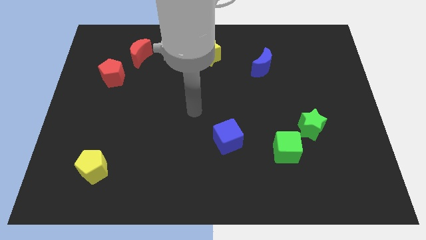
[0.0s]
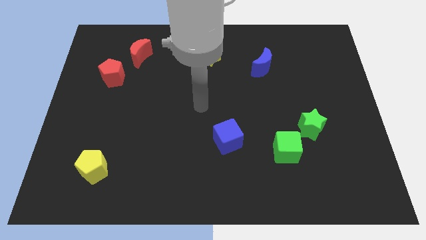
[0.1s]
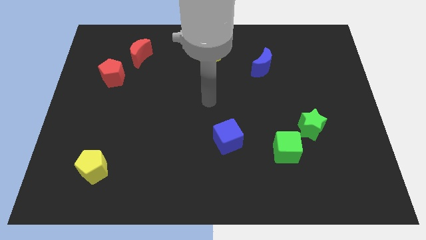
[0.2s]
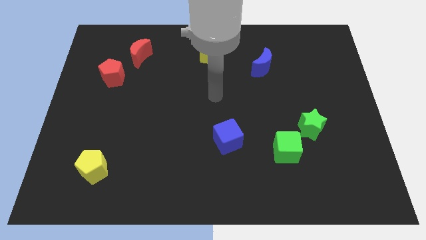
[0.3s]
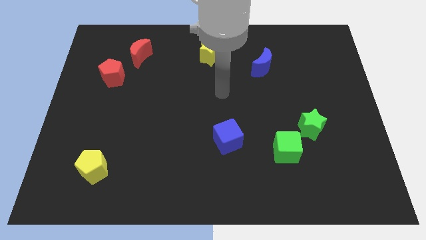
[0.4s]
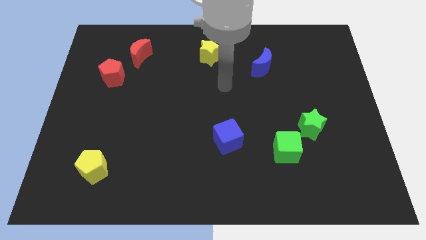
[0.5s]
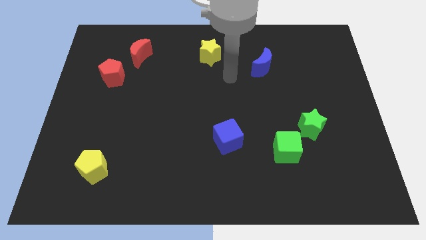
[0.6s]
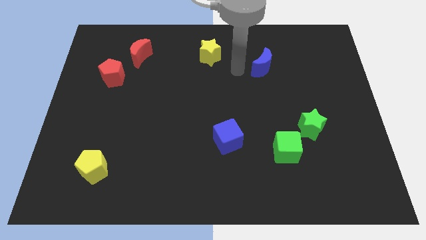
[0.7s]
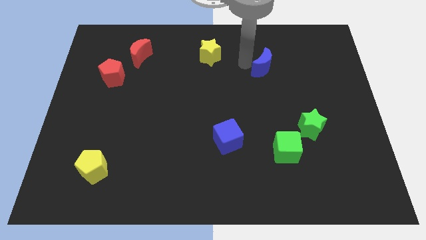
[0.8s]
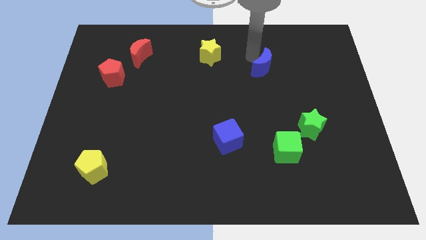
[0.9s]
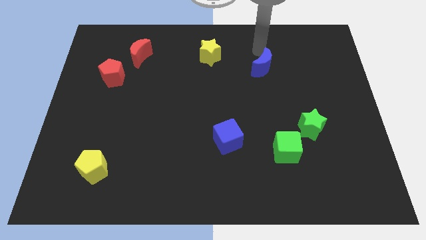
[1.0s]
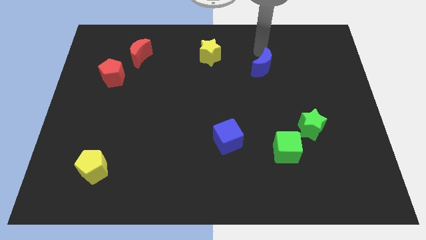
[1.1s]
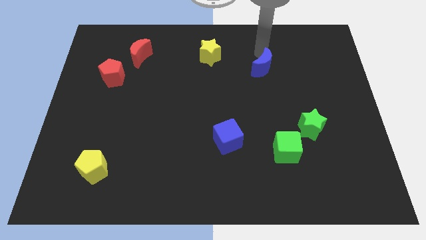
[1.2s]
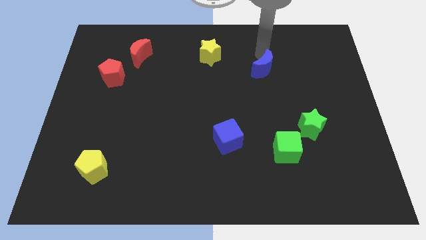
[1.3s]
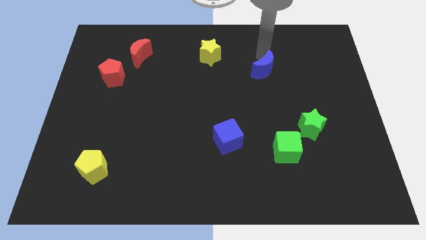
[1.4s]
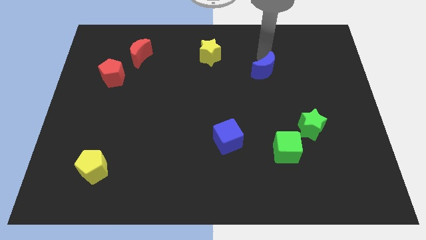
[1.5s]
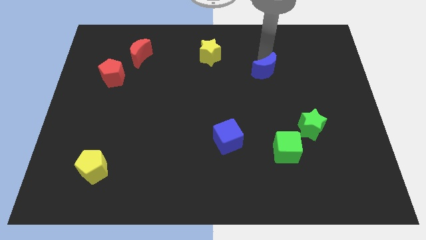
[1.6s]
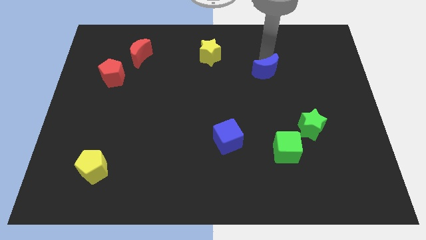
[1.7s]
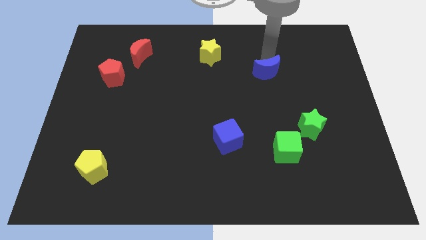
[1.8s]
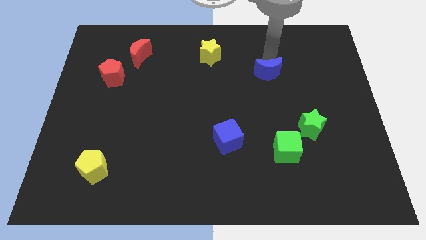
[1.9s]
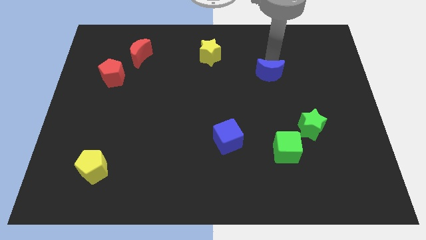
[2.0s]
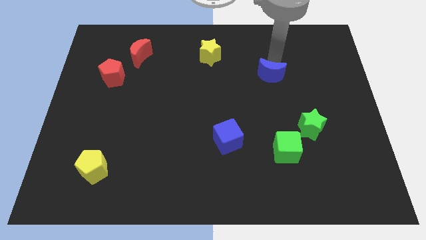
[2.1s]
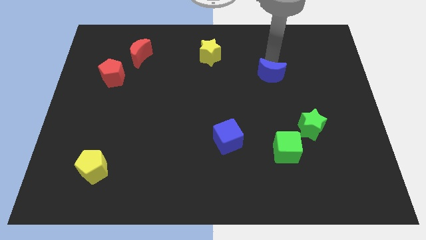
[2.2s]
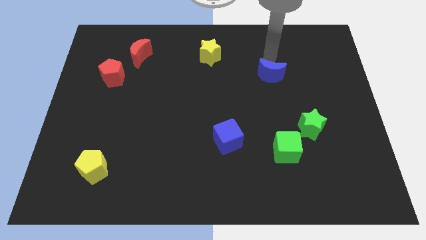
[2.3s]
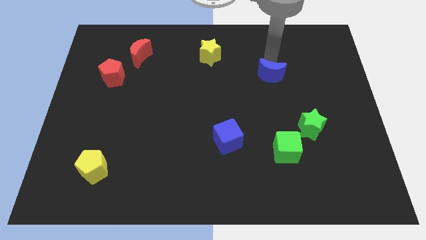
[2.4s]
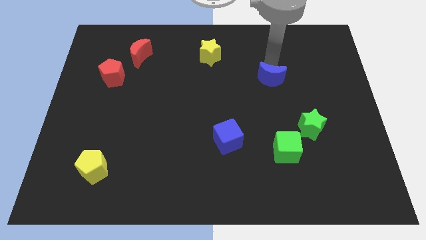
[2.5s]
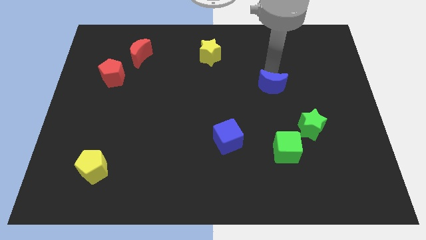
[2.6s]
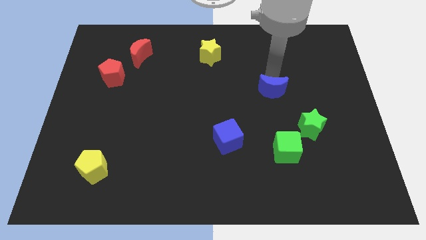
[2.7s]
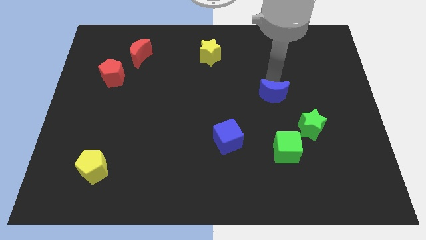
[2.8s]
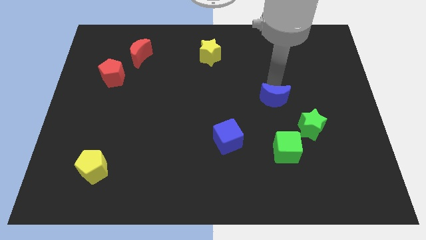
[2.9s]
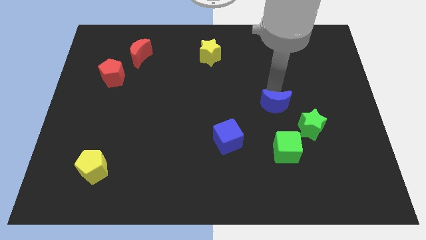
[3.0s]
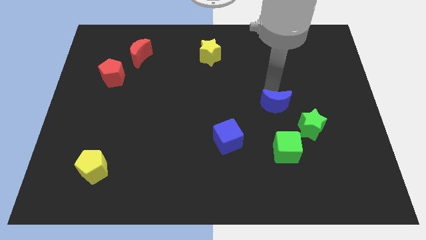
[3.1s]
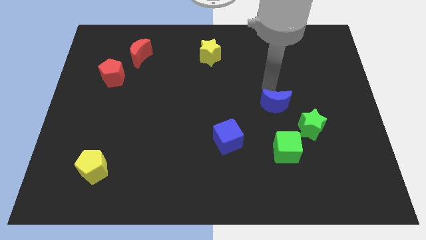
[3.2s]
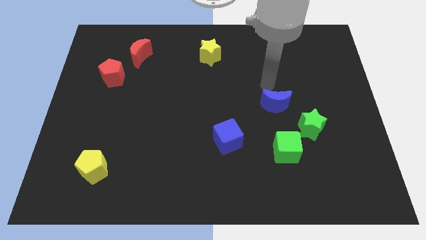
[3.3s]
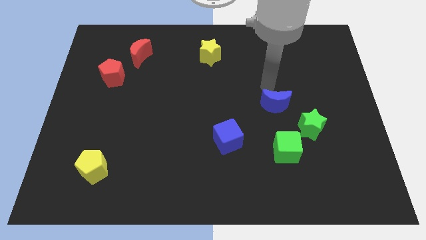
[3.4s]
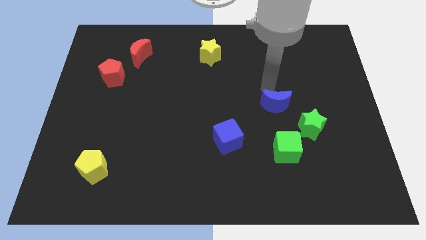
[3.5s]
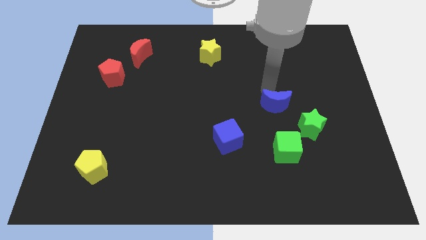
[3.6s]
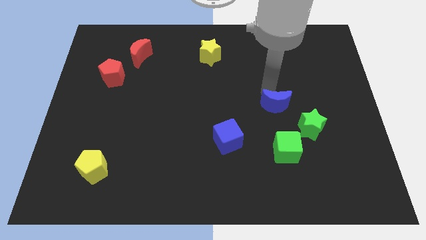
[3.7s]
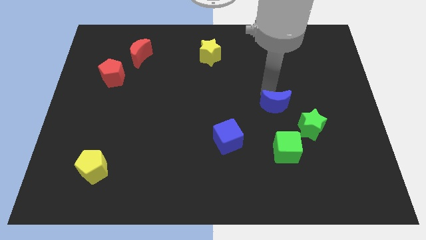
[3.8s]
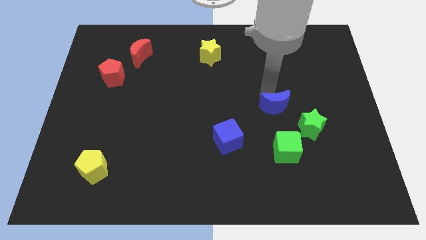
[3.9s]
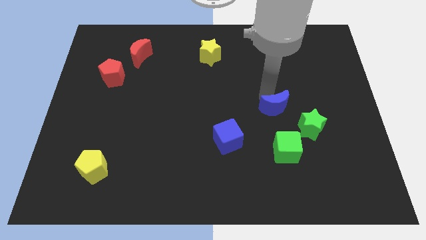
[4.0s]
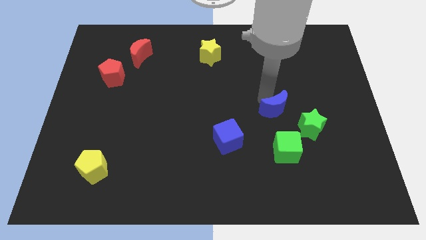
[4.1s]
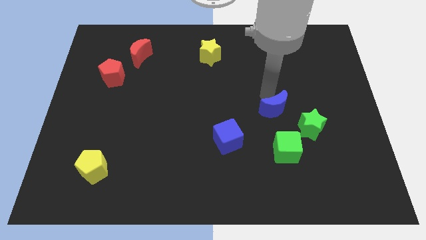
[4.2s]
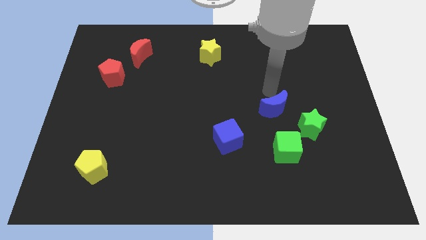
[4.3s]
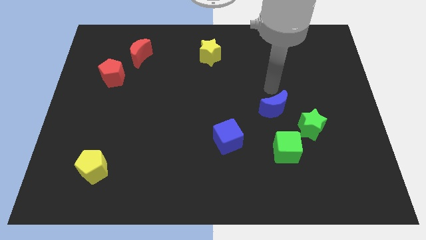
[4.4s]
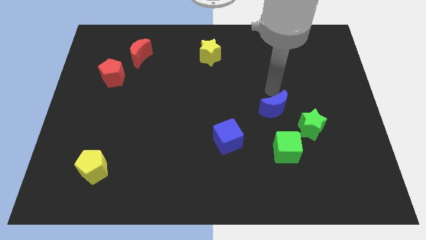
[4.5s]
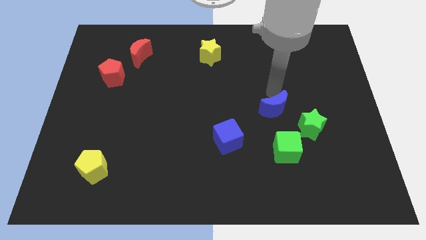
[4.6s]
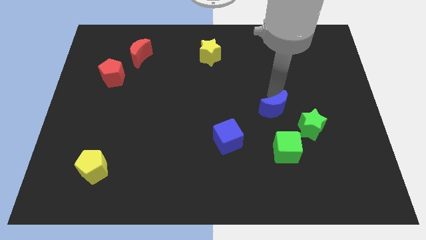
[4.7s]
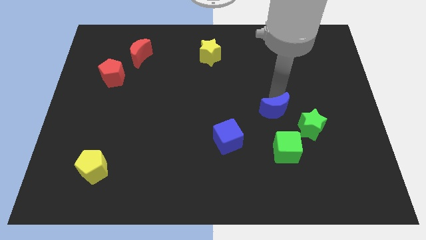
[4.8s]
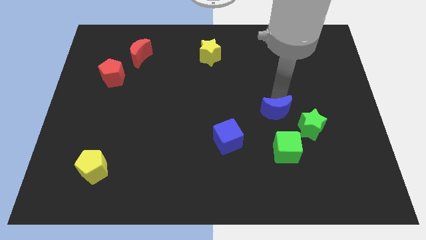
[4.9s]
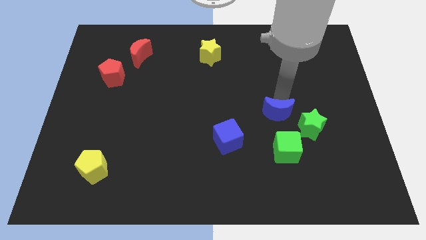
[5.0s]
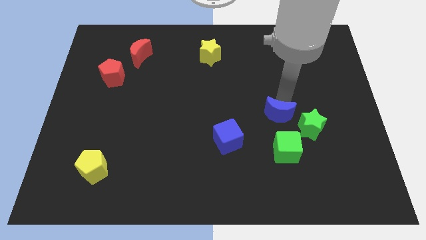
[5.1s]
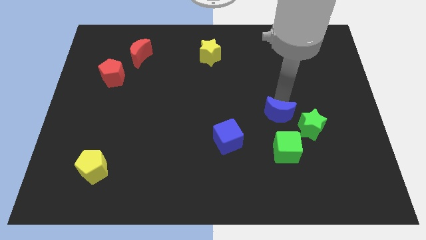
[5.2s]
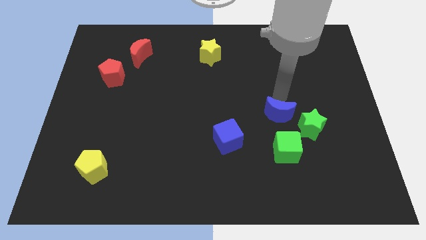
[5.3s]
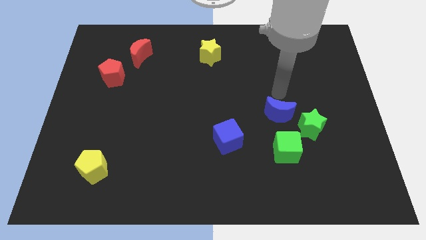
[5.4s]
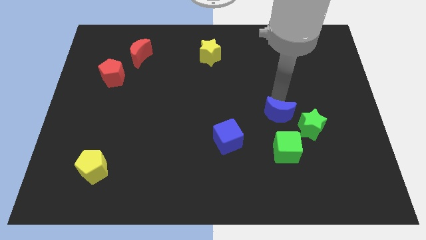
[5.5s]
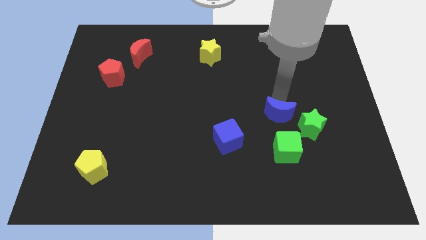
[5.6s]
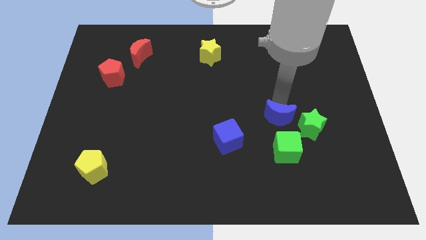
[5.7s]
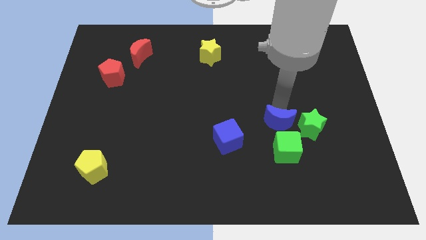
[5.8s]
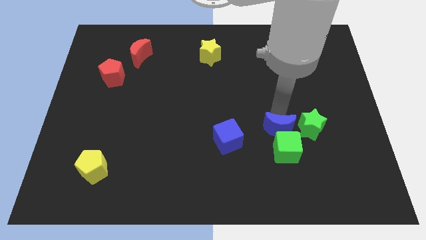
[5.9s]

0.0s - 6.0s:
put the blue moon next to the green cube
